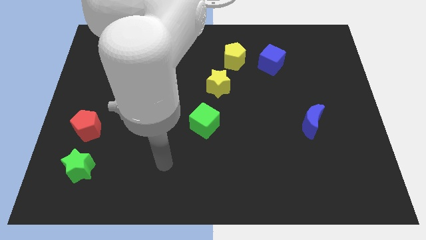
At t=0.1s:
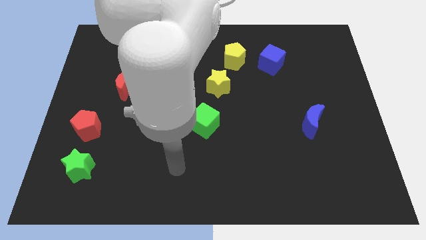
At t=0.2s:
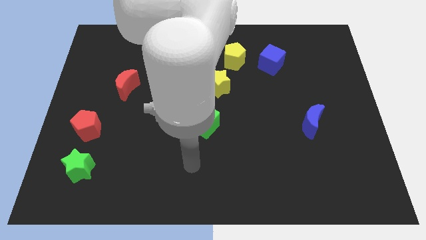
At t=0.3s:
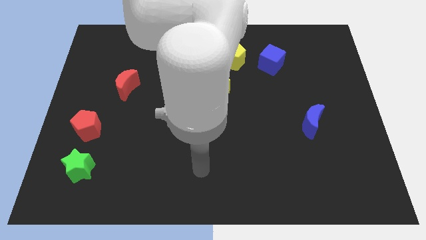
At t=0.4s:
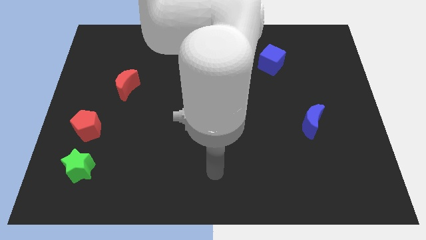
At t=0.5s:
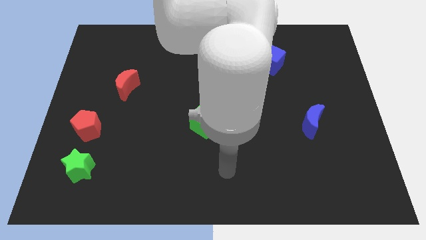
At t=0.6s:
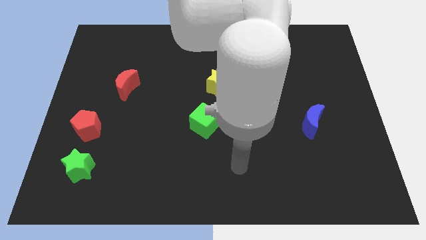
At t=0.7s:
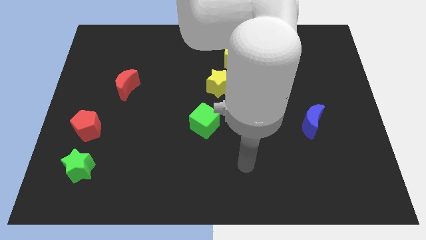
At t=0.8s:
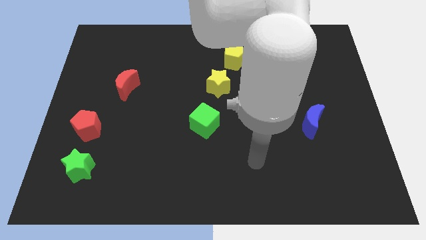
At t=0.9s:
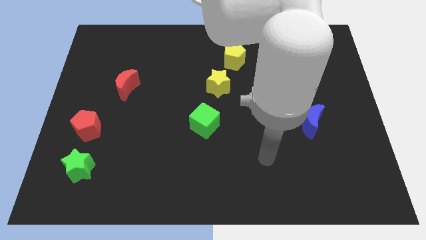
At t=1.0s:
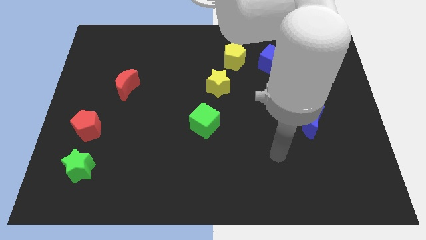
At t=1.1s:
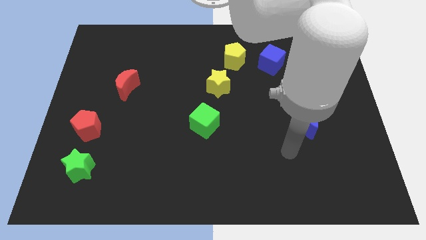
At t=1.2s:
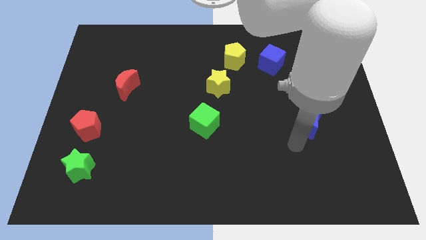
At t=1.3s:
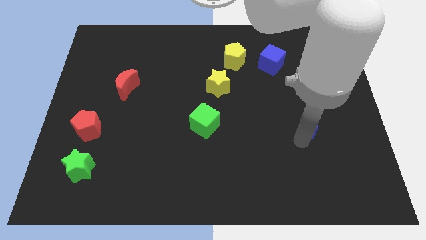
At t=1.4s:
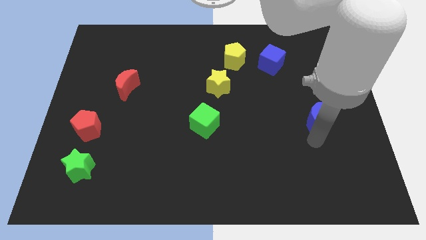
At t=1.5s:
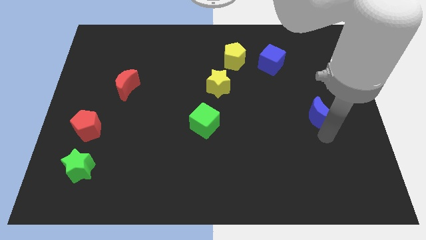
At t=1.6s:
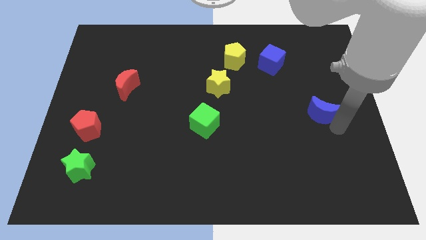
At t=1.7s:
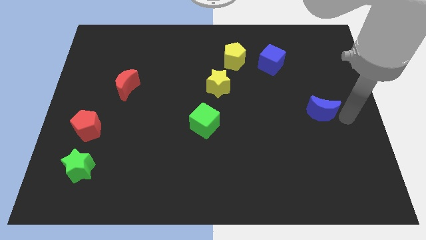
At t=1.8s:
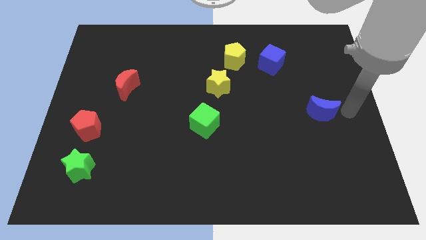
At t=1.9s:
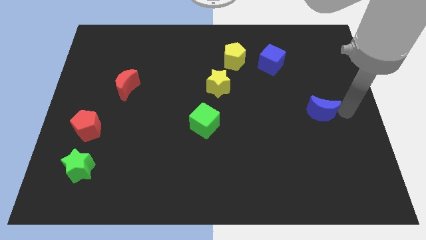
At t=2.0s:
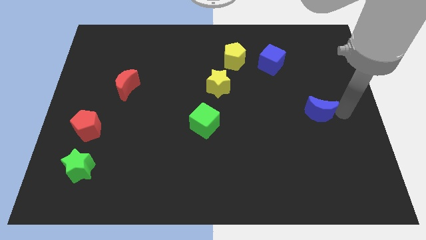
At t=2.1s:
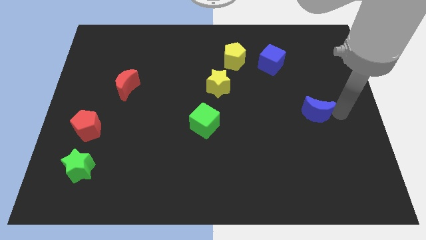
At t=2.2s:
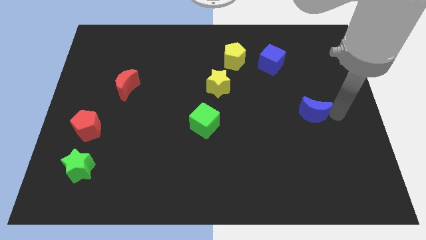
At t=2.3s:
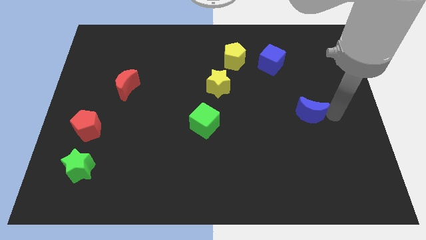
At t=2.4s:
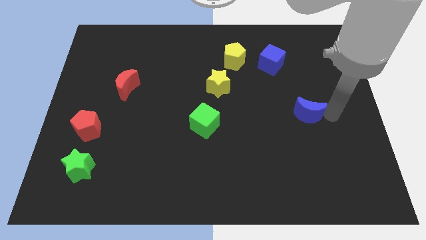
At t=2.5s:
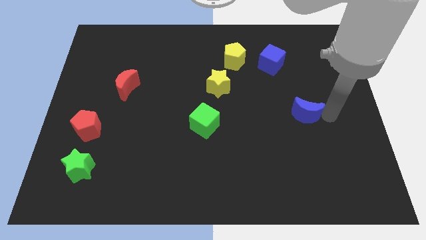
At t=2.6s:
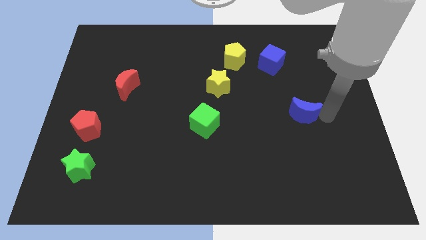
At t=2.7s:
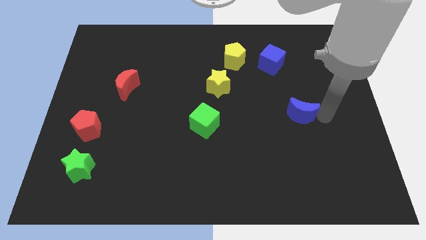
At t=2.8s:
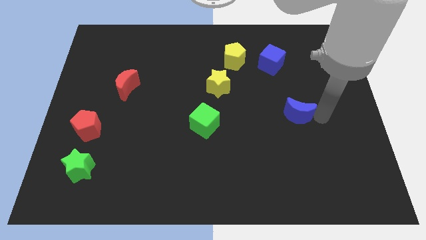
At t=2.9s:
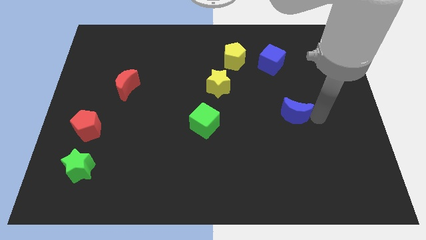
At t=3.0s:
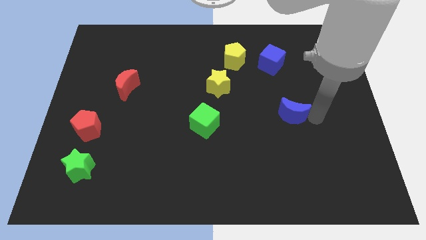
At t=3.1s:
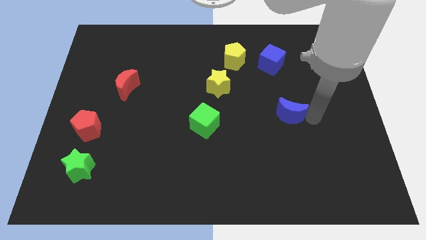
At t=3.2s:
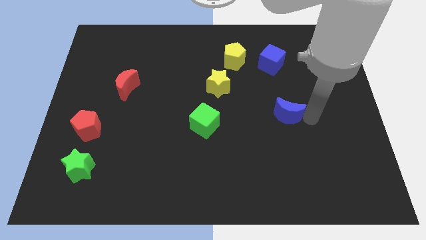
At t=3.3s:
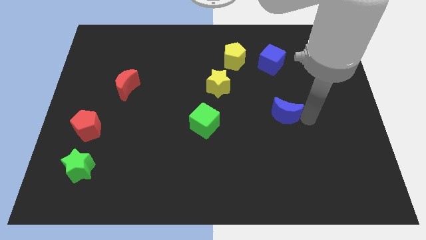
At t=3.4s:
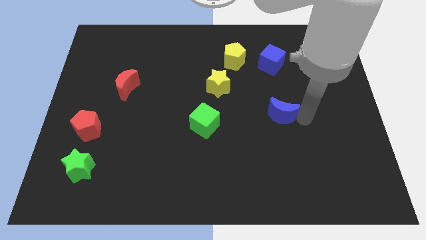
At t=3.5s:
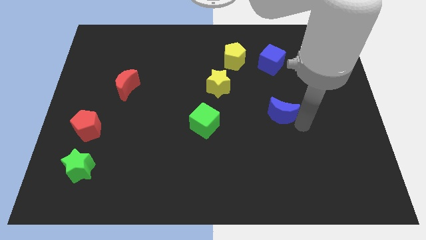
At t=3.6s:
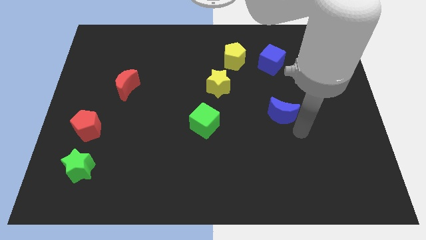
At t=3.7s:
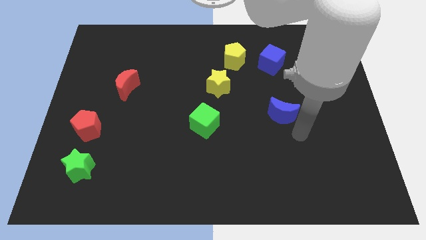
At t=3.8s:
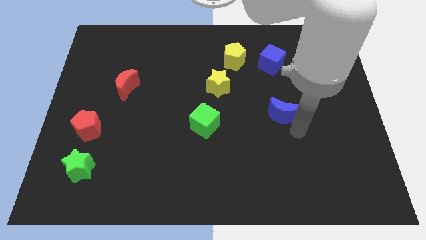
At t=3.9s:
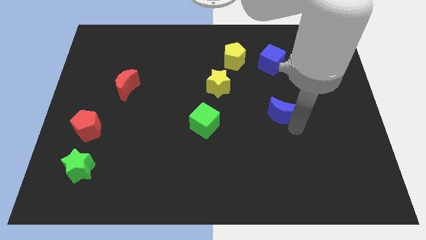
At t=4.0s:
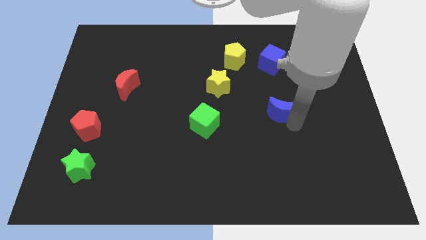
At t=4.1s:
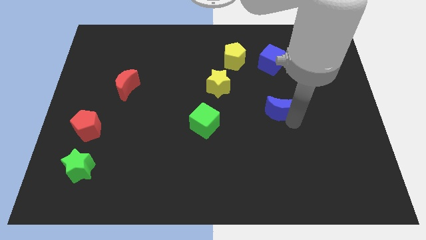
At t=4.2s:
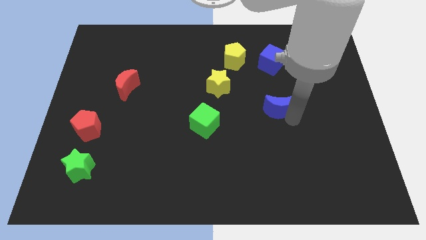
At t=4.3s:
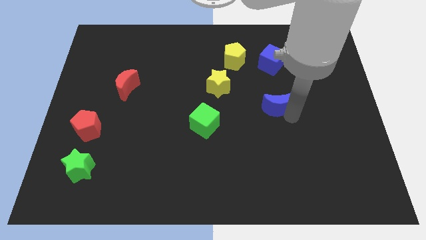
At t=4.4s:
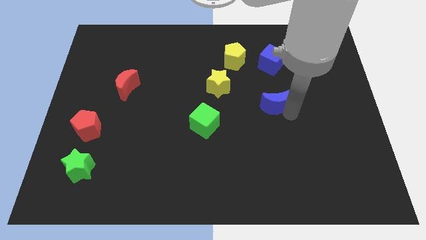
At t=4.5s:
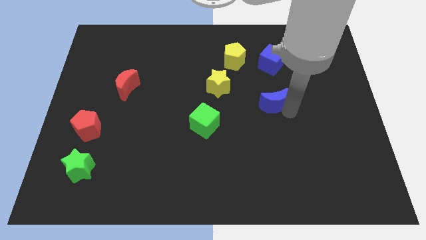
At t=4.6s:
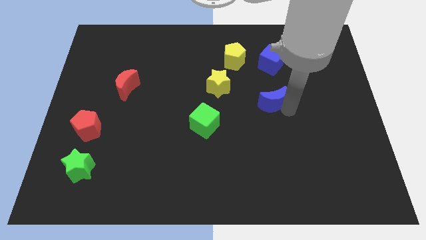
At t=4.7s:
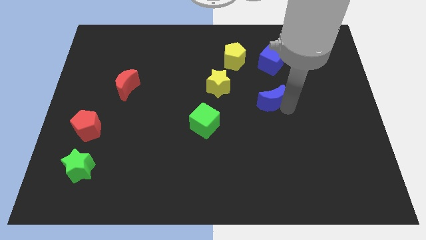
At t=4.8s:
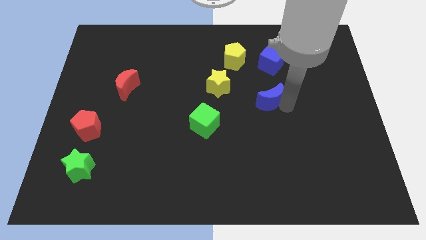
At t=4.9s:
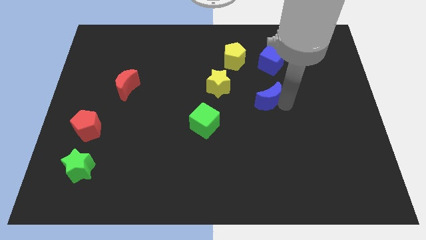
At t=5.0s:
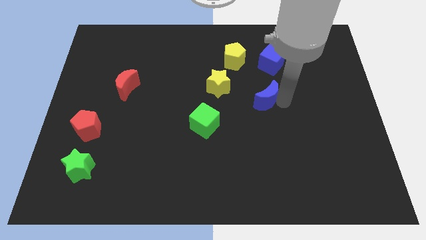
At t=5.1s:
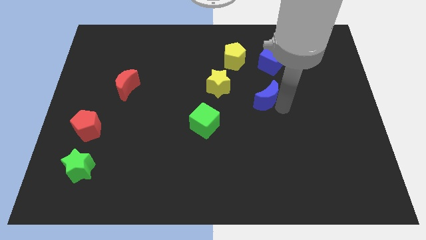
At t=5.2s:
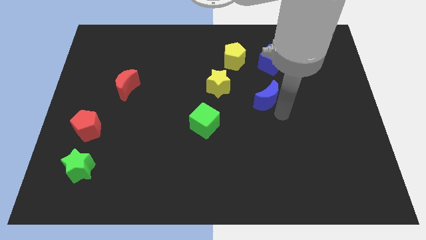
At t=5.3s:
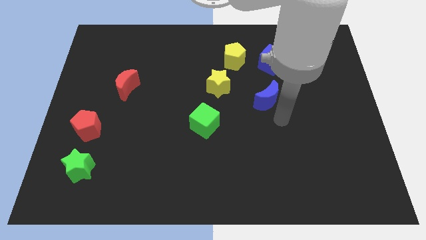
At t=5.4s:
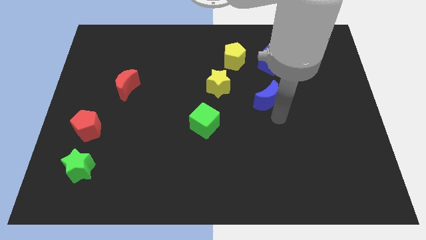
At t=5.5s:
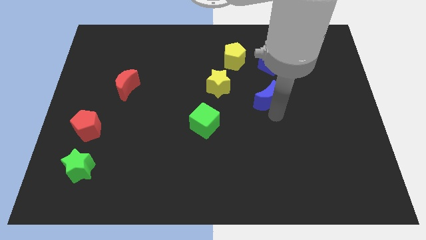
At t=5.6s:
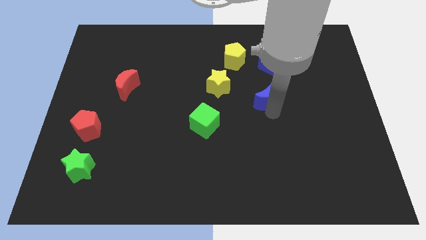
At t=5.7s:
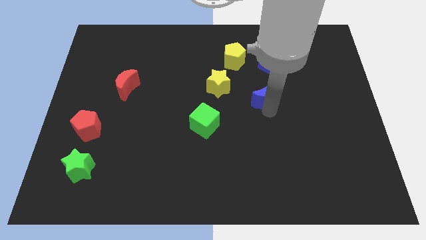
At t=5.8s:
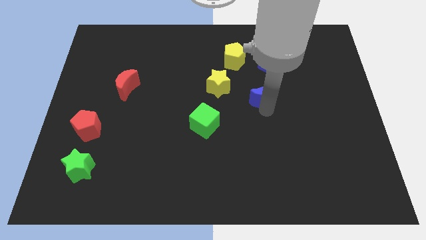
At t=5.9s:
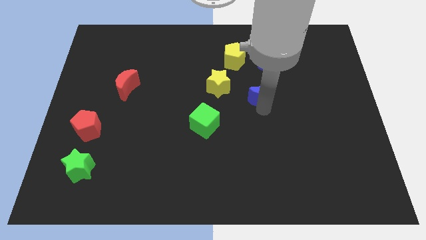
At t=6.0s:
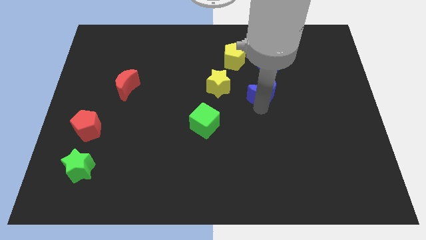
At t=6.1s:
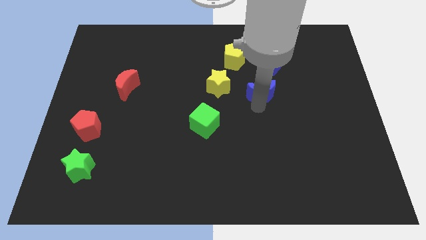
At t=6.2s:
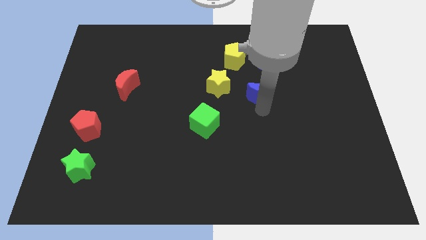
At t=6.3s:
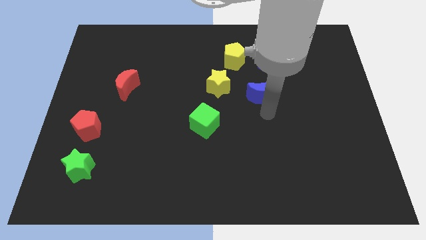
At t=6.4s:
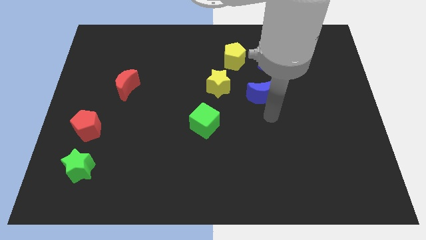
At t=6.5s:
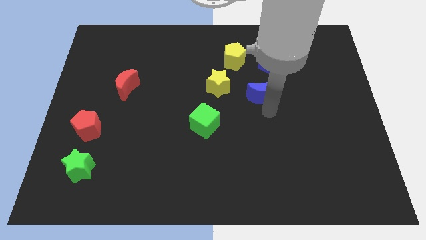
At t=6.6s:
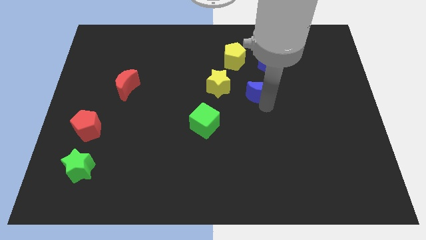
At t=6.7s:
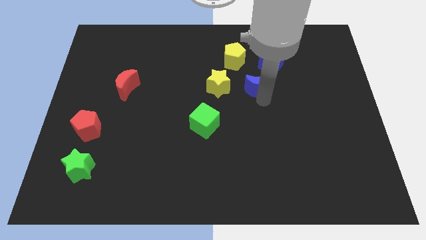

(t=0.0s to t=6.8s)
put the blue moon to the bottom left side of the blue cube
